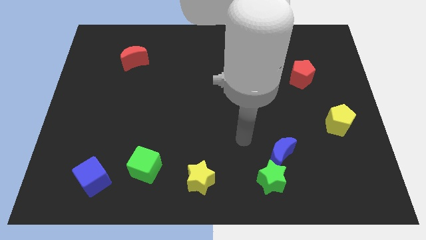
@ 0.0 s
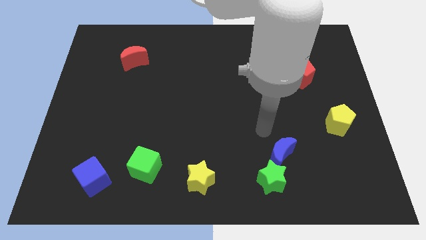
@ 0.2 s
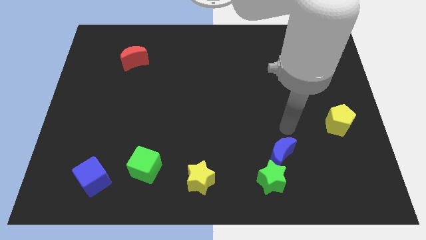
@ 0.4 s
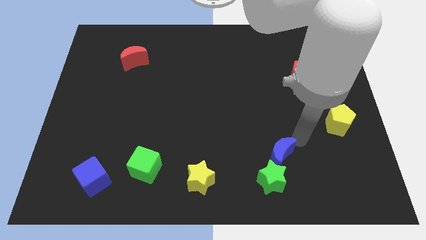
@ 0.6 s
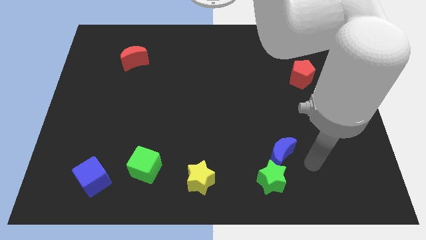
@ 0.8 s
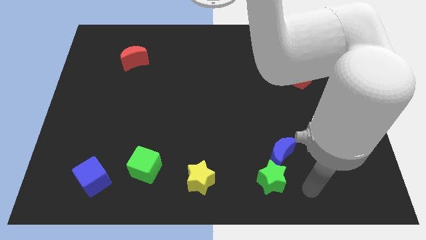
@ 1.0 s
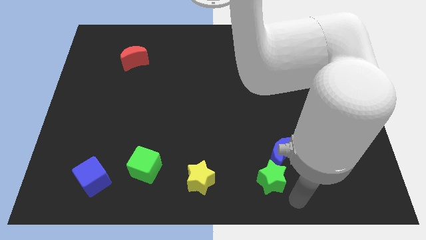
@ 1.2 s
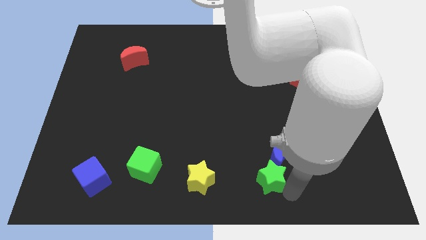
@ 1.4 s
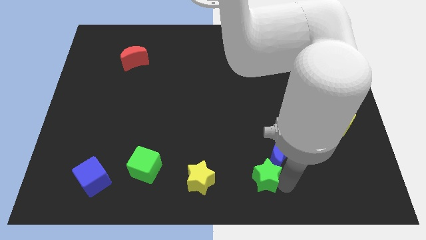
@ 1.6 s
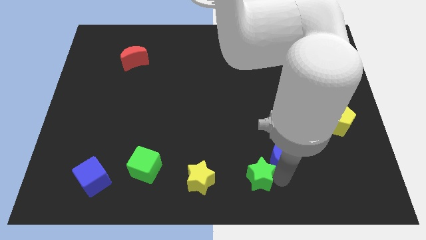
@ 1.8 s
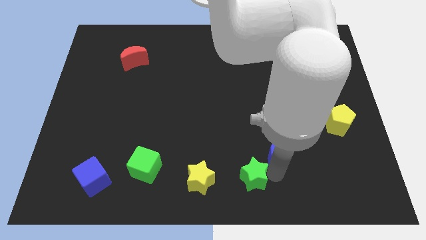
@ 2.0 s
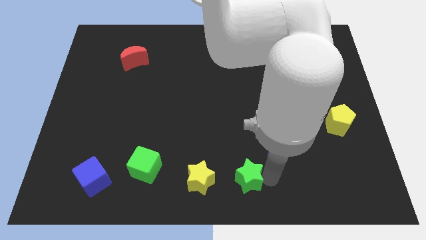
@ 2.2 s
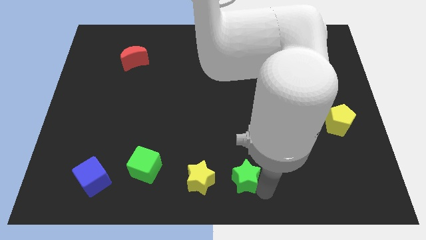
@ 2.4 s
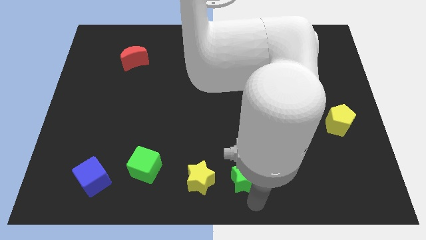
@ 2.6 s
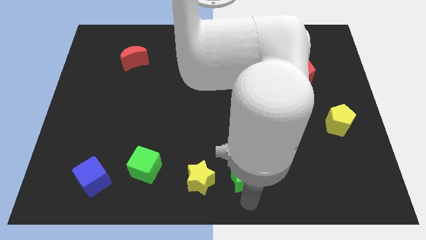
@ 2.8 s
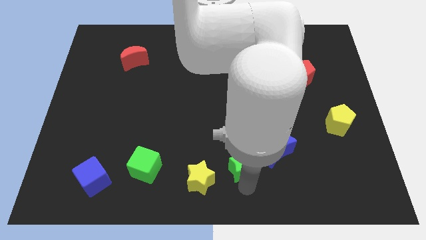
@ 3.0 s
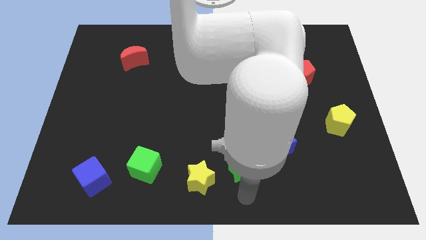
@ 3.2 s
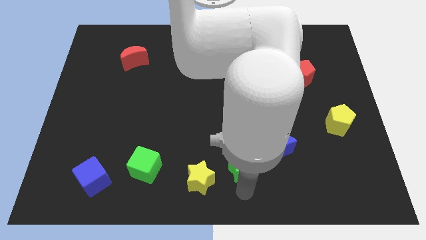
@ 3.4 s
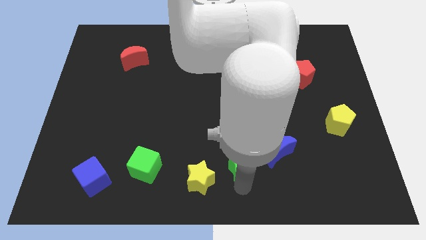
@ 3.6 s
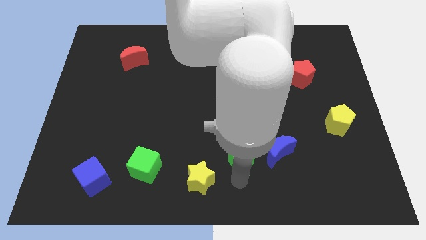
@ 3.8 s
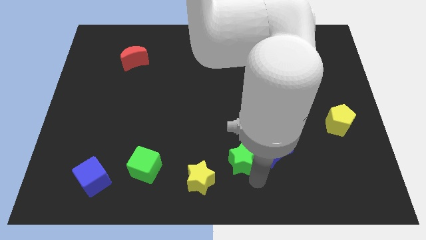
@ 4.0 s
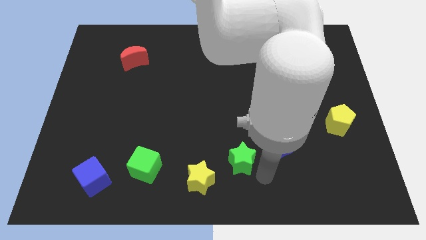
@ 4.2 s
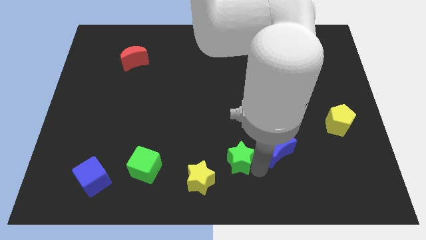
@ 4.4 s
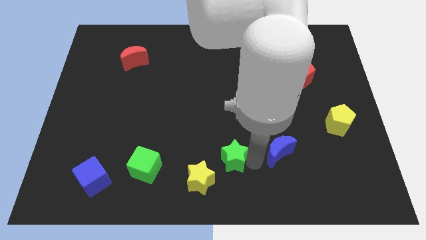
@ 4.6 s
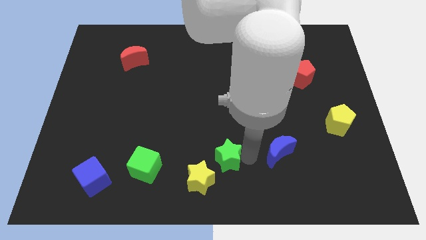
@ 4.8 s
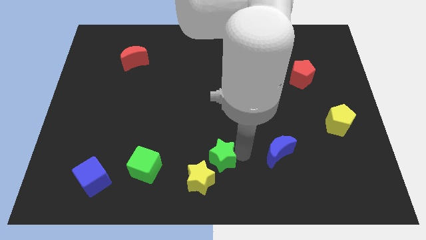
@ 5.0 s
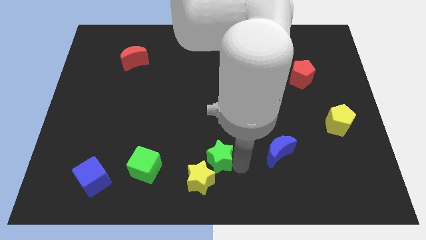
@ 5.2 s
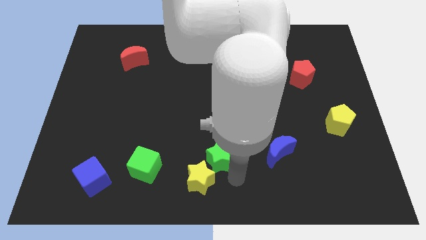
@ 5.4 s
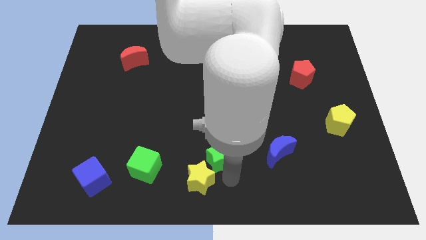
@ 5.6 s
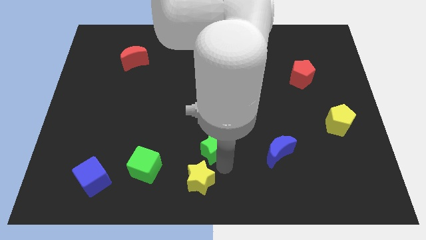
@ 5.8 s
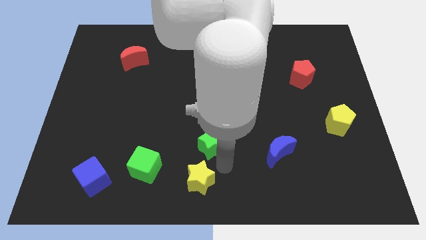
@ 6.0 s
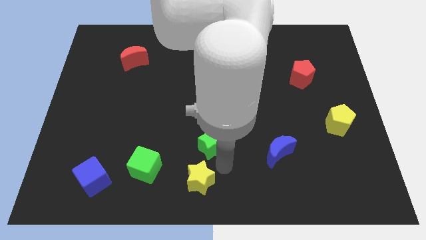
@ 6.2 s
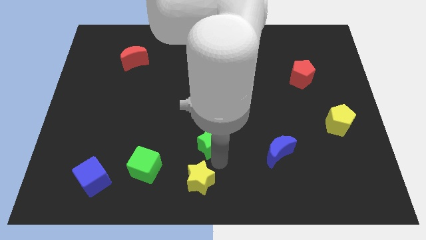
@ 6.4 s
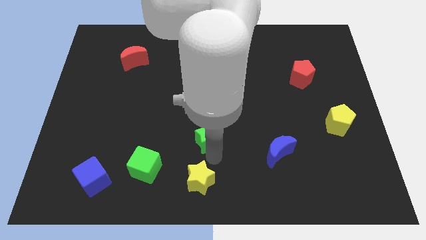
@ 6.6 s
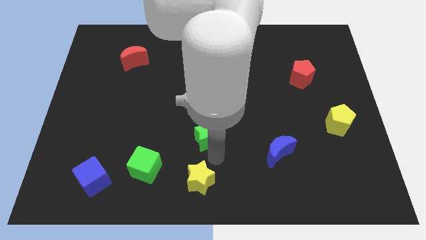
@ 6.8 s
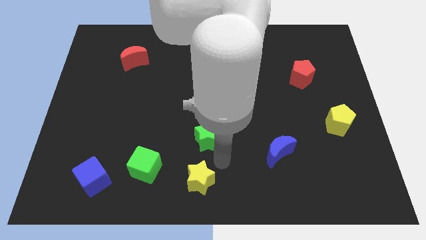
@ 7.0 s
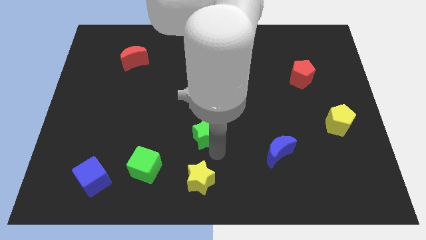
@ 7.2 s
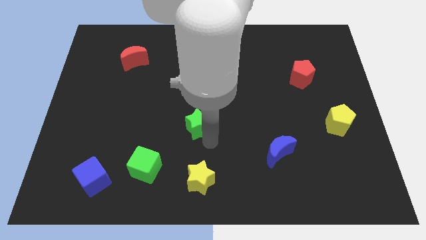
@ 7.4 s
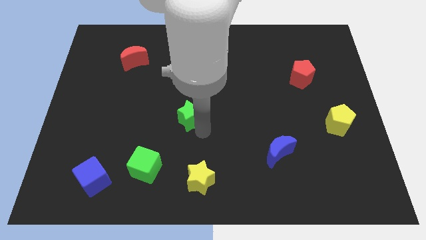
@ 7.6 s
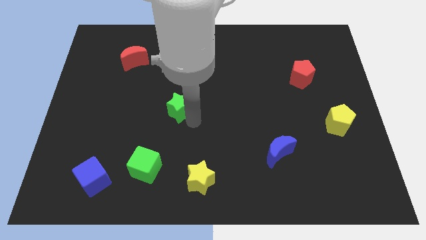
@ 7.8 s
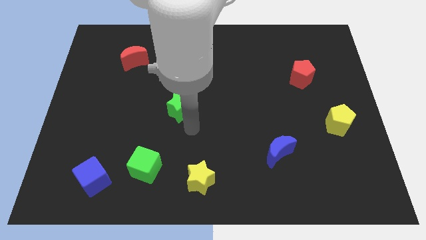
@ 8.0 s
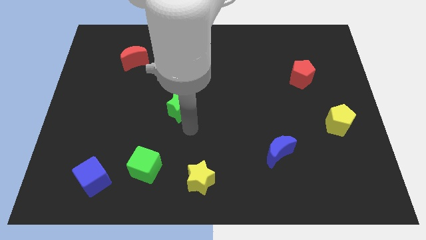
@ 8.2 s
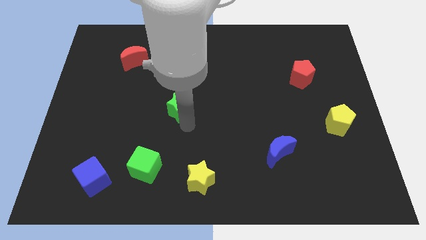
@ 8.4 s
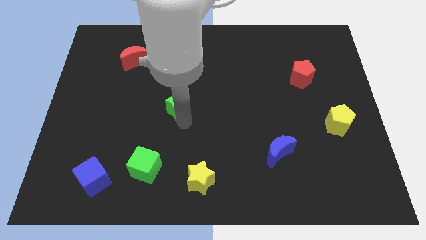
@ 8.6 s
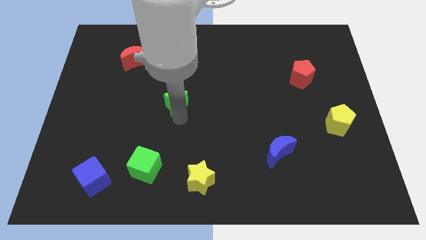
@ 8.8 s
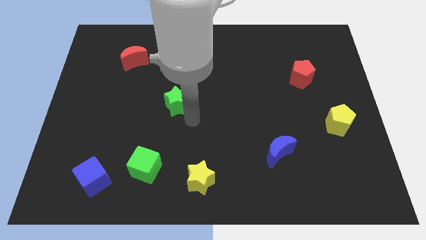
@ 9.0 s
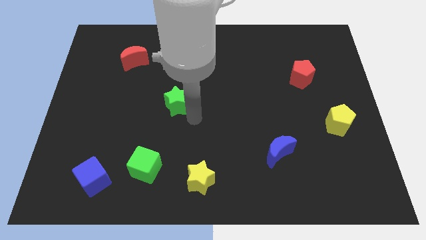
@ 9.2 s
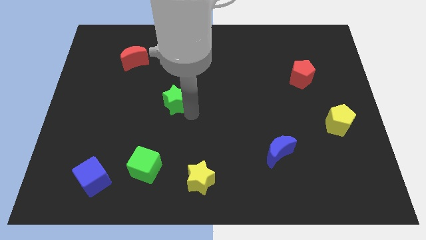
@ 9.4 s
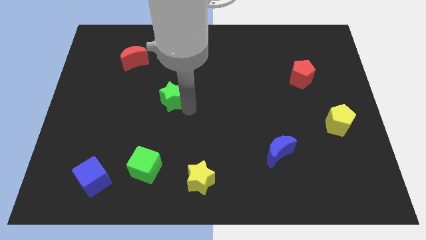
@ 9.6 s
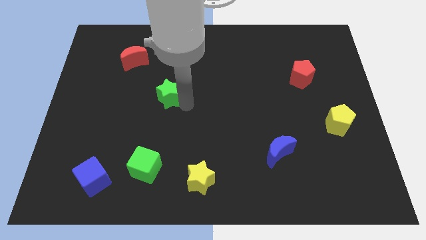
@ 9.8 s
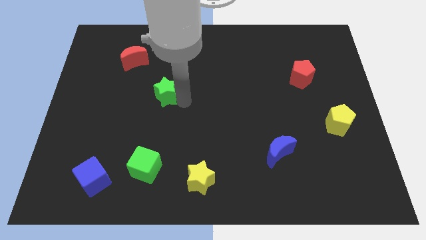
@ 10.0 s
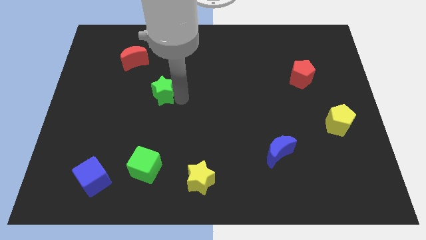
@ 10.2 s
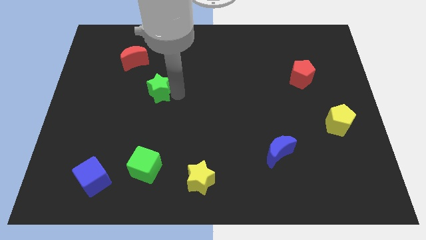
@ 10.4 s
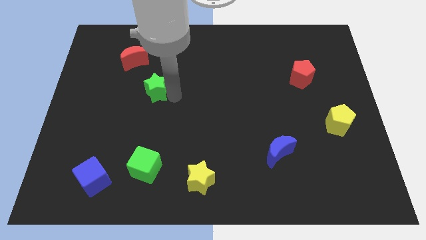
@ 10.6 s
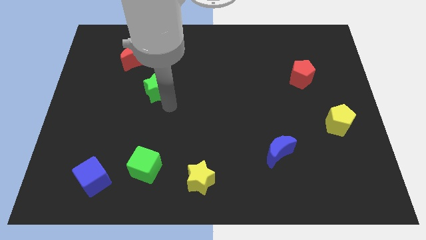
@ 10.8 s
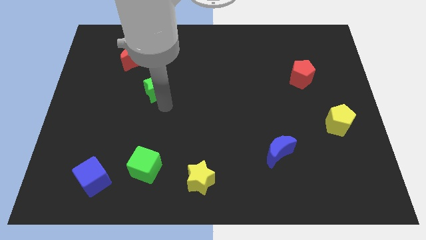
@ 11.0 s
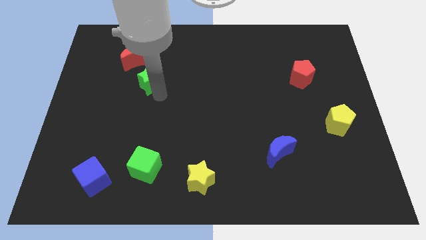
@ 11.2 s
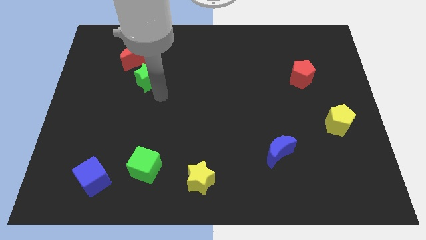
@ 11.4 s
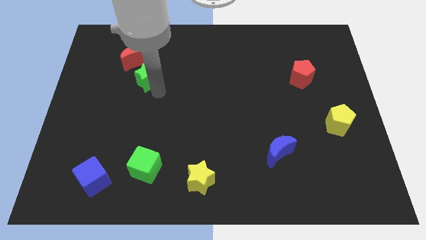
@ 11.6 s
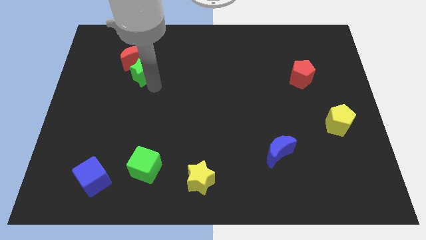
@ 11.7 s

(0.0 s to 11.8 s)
move the green star close to the red moon

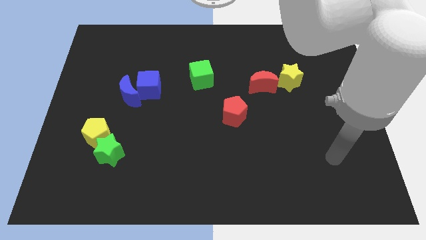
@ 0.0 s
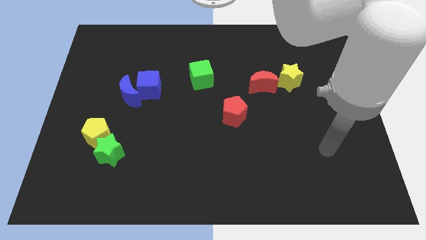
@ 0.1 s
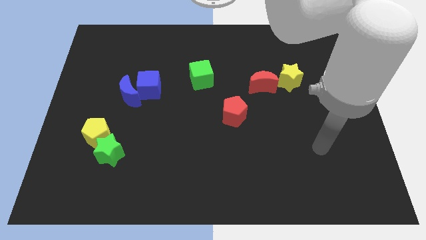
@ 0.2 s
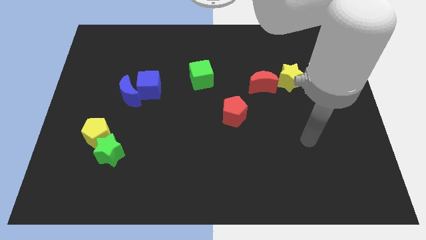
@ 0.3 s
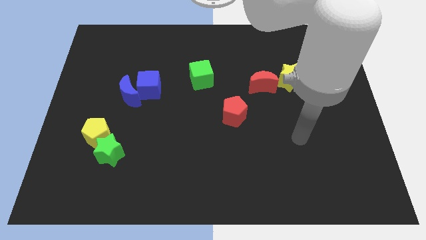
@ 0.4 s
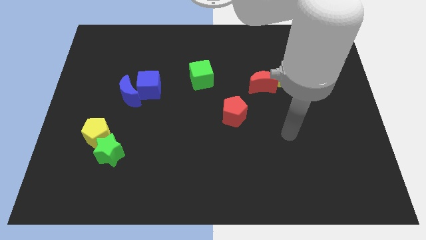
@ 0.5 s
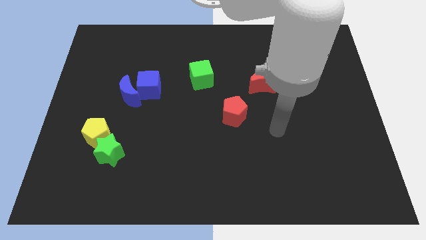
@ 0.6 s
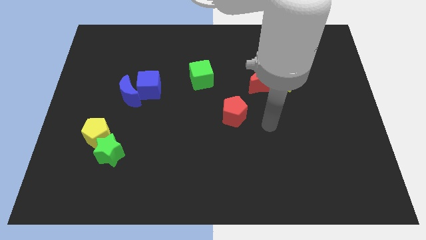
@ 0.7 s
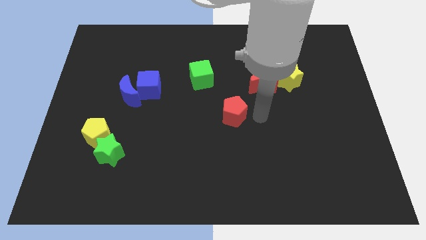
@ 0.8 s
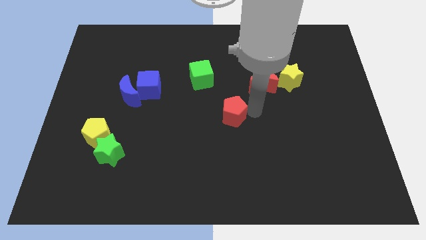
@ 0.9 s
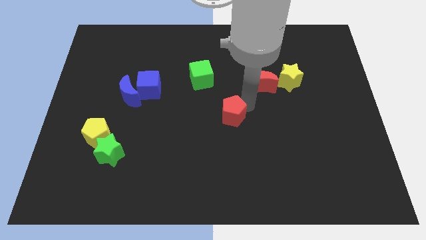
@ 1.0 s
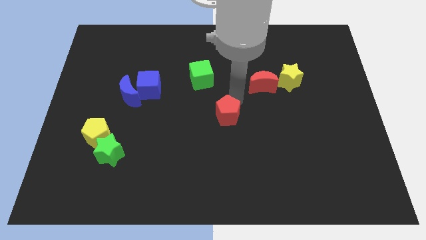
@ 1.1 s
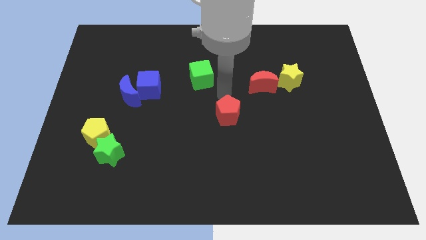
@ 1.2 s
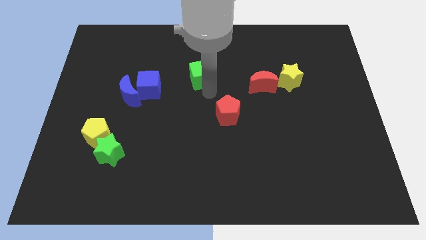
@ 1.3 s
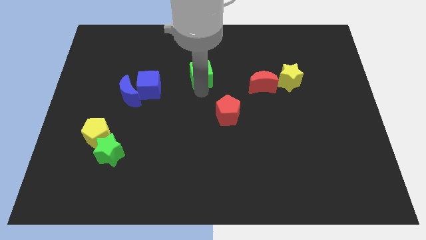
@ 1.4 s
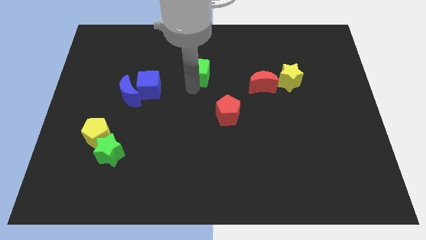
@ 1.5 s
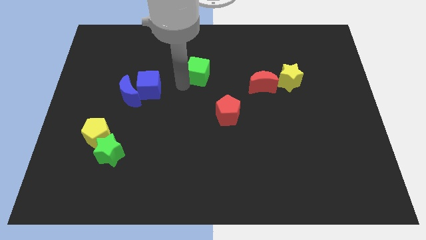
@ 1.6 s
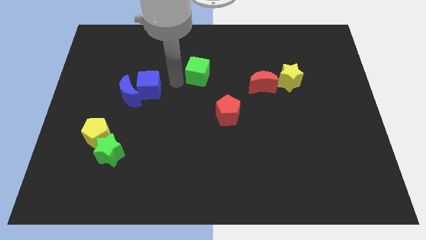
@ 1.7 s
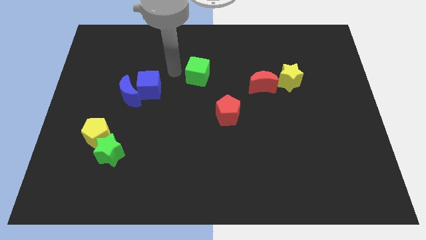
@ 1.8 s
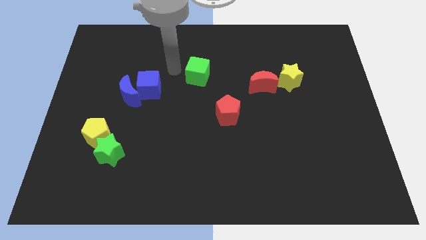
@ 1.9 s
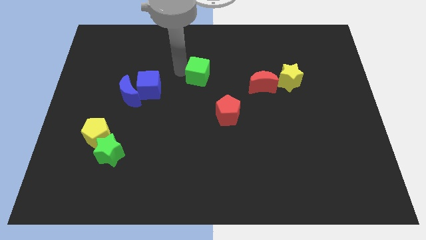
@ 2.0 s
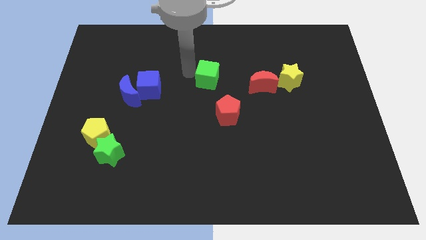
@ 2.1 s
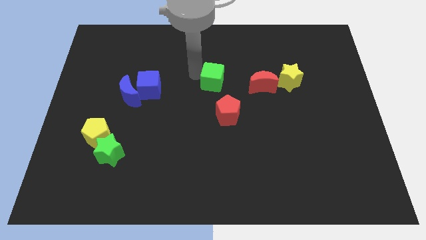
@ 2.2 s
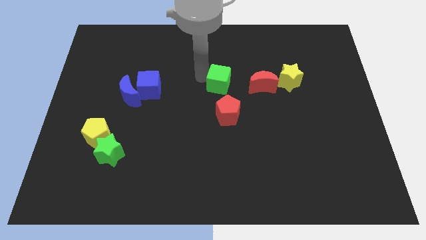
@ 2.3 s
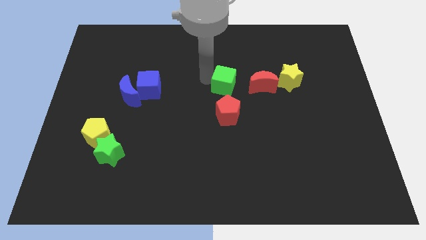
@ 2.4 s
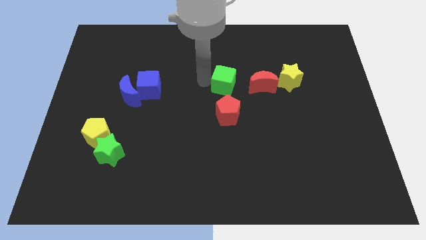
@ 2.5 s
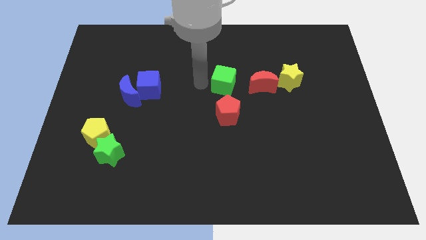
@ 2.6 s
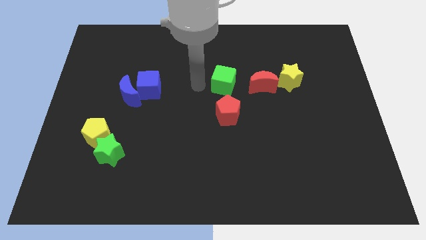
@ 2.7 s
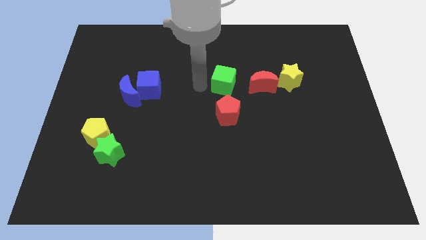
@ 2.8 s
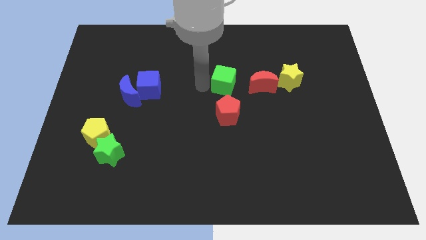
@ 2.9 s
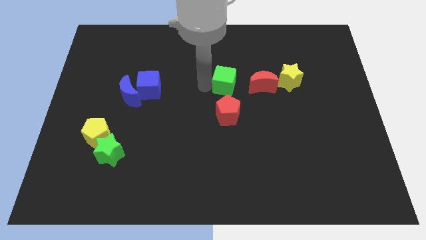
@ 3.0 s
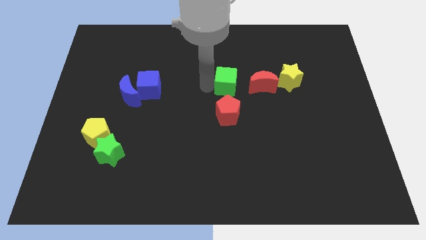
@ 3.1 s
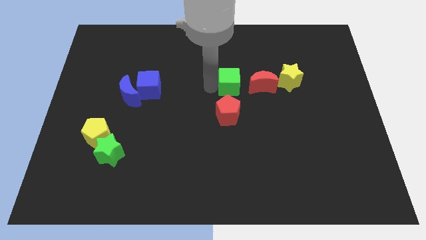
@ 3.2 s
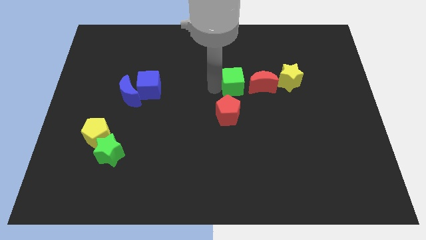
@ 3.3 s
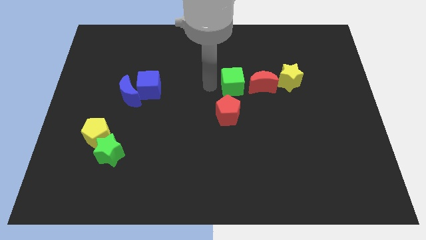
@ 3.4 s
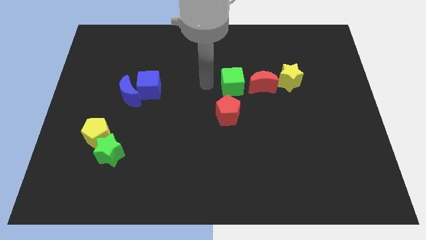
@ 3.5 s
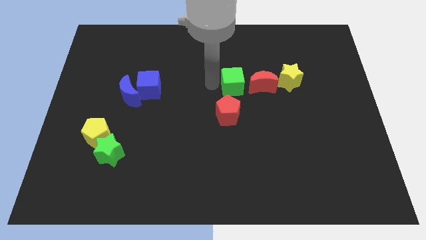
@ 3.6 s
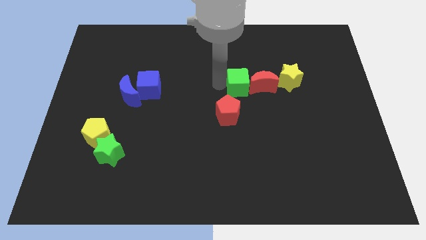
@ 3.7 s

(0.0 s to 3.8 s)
push the green cube next to the red moon
